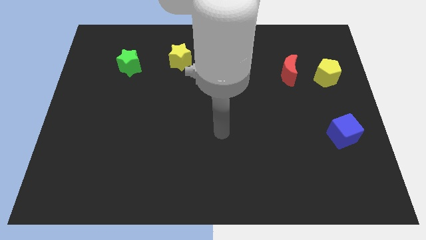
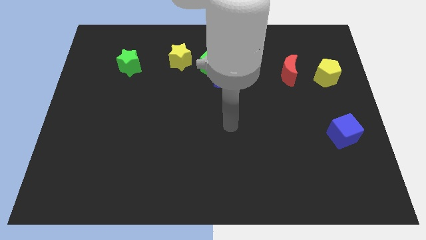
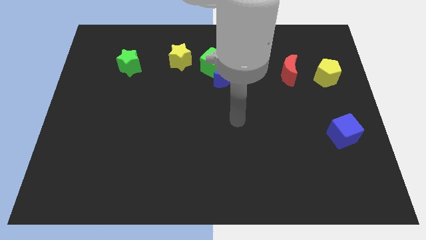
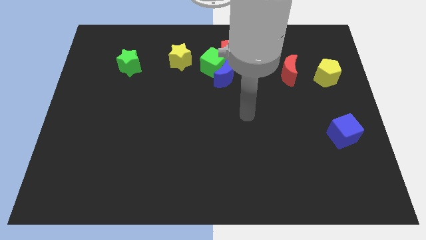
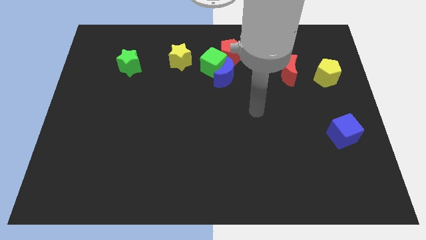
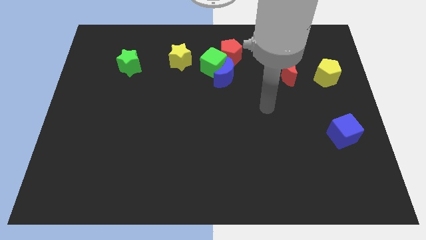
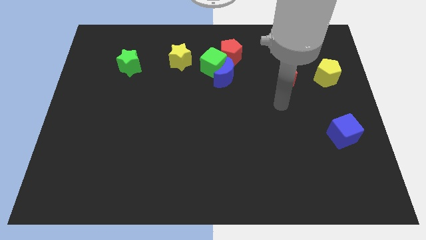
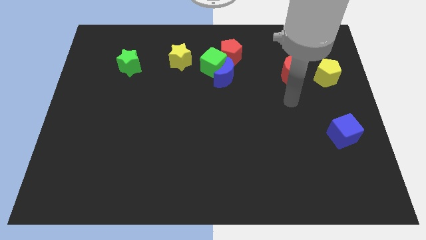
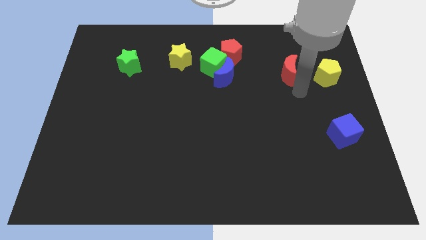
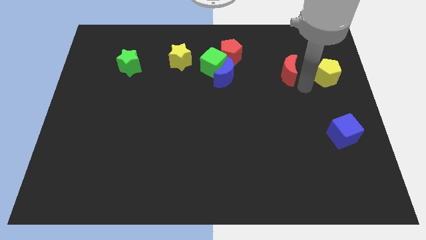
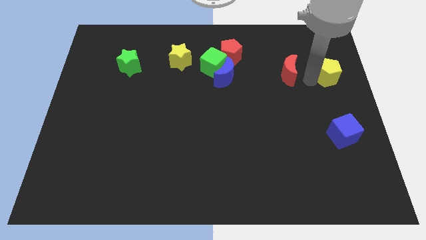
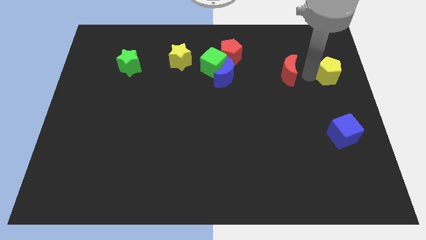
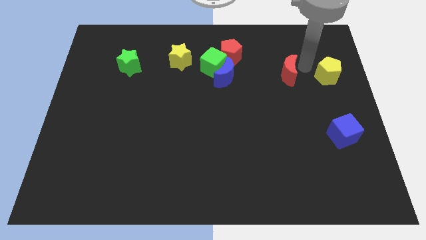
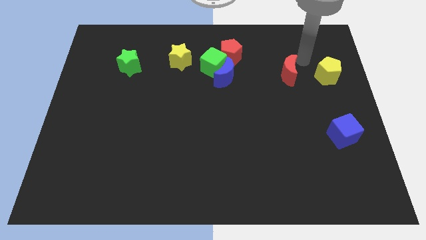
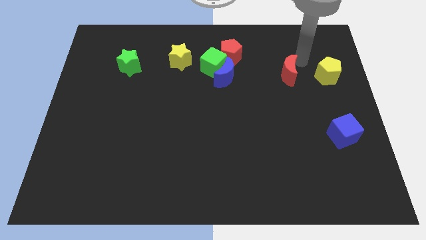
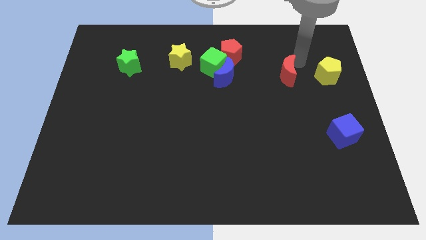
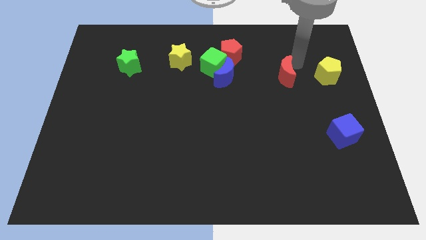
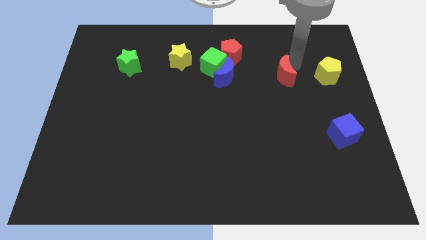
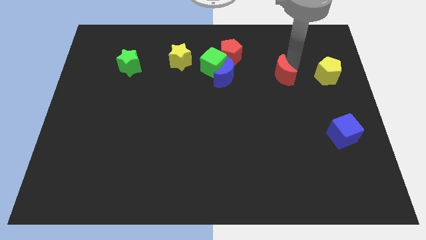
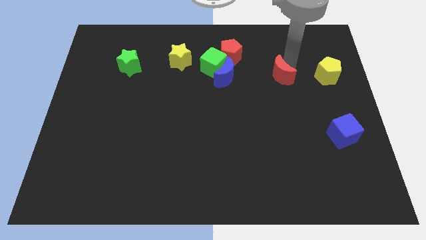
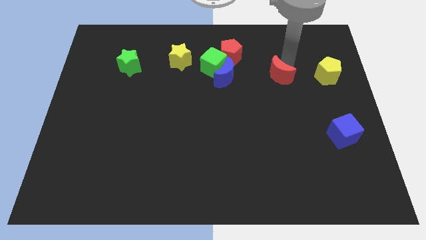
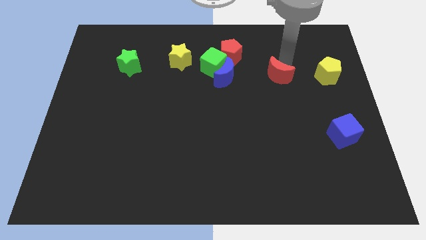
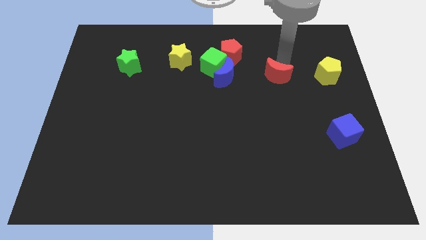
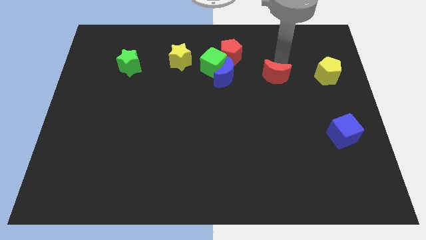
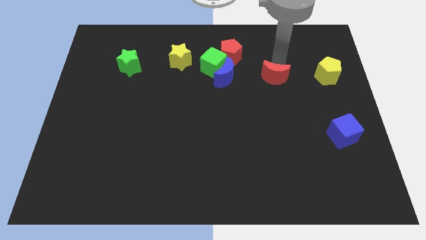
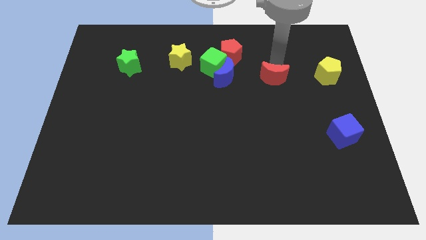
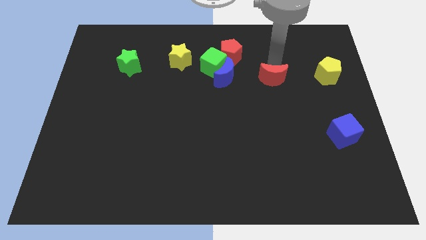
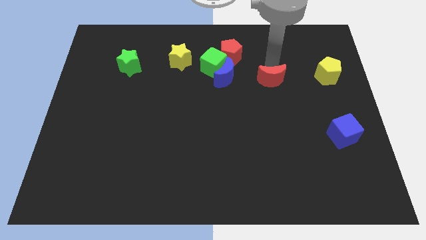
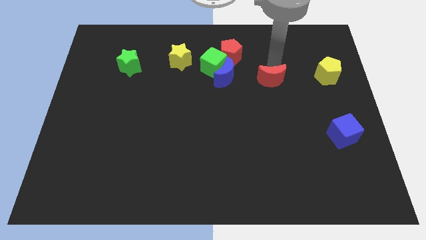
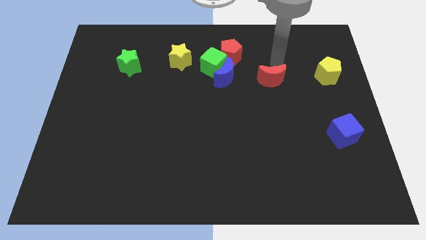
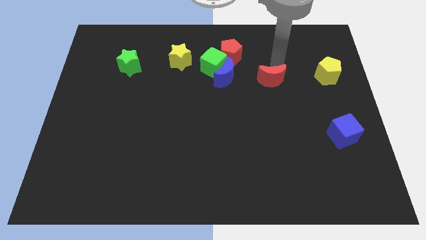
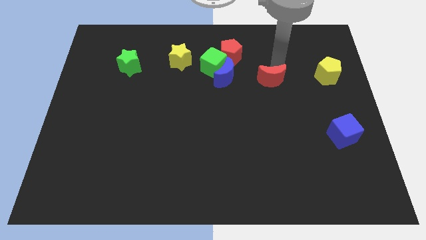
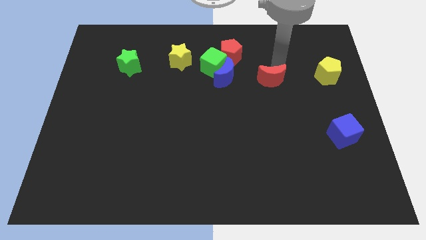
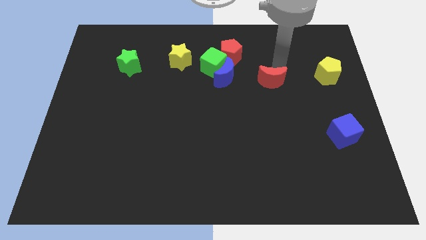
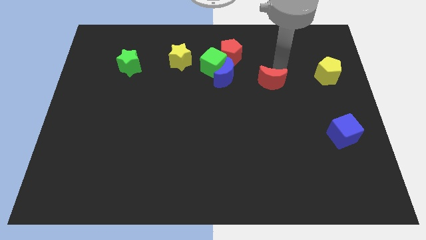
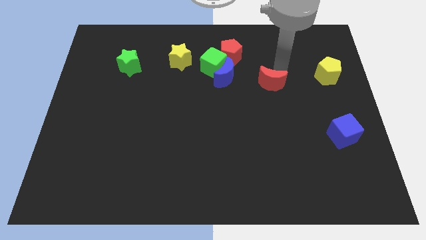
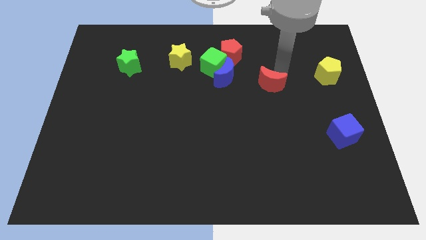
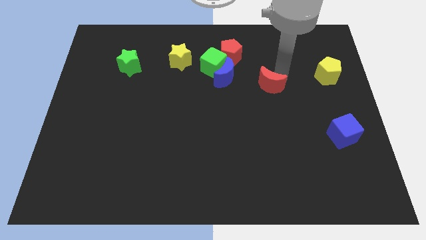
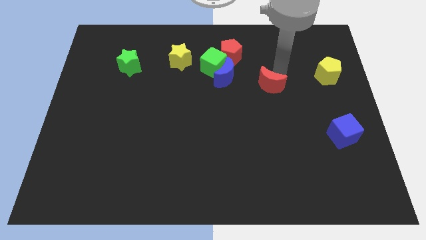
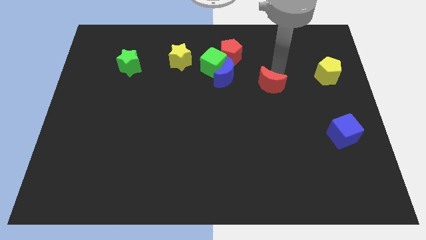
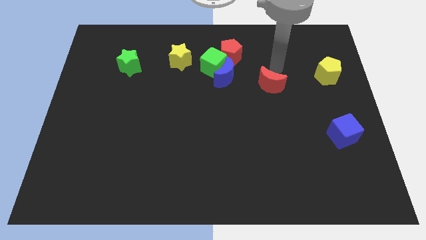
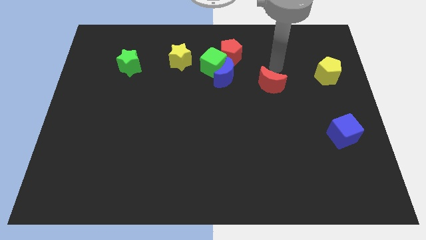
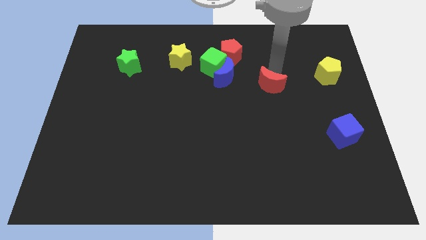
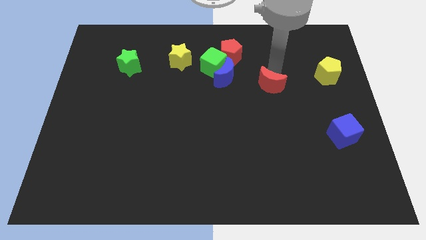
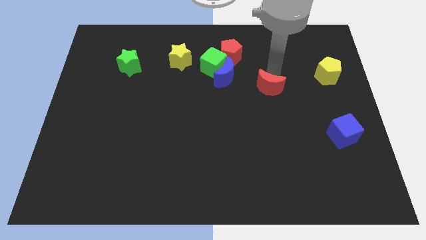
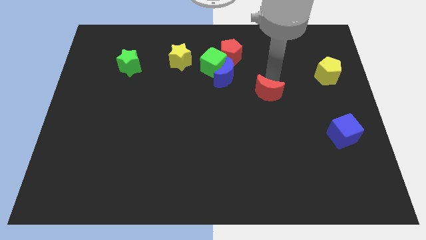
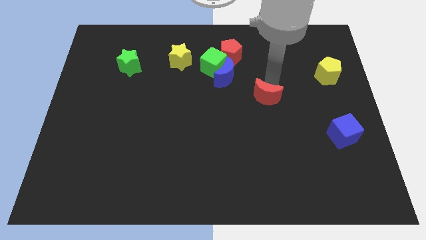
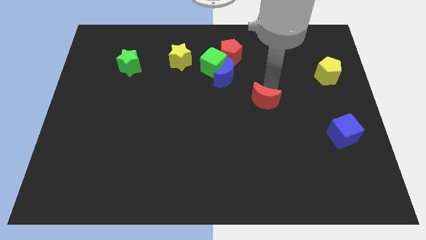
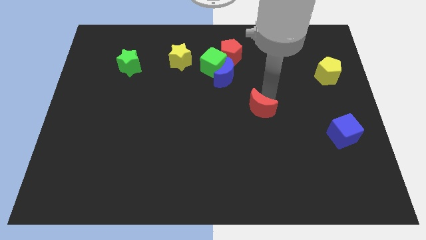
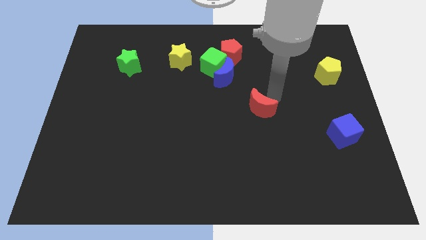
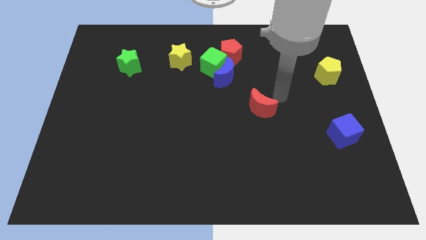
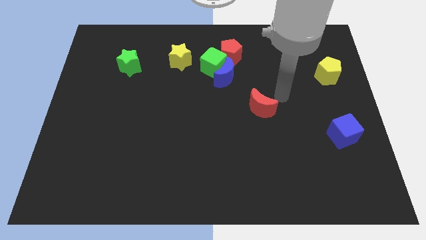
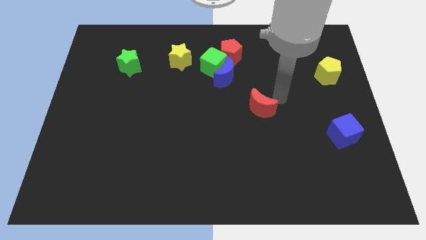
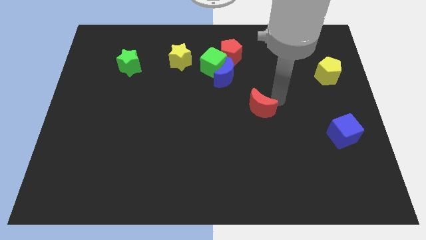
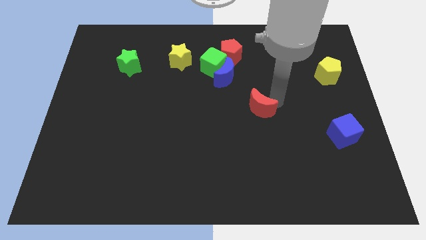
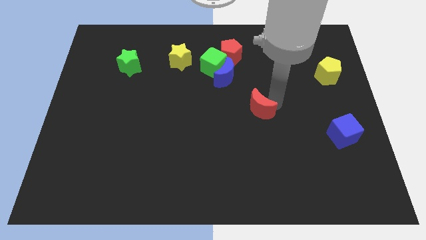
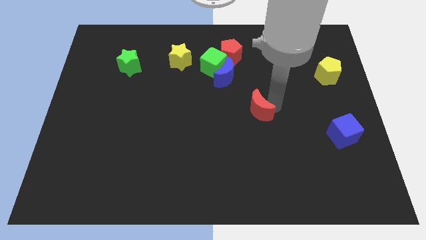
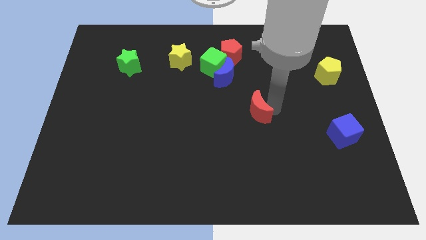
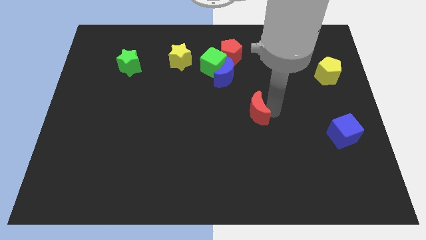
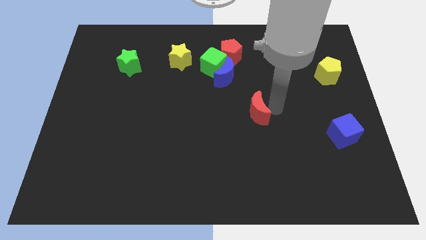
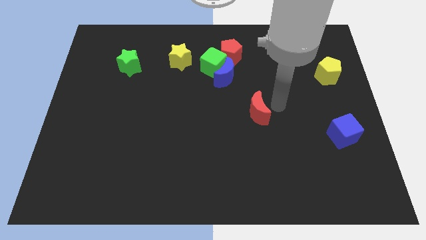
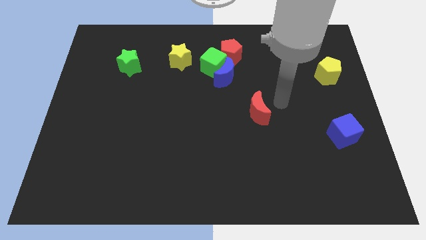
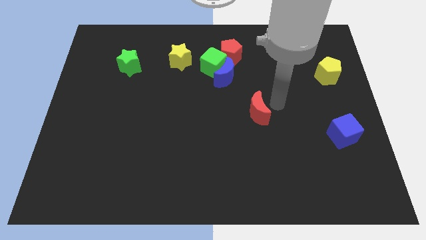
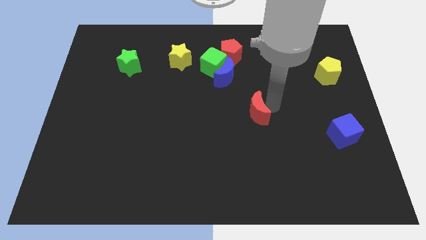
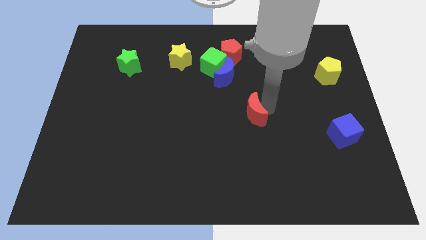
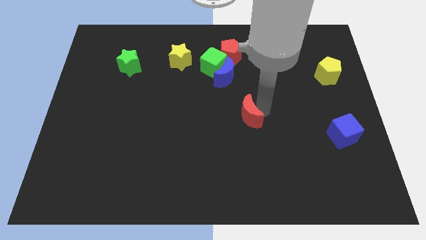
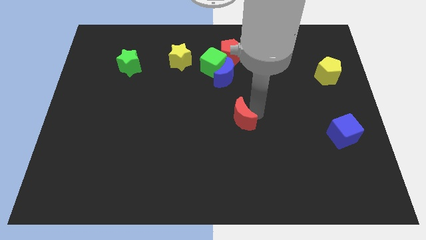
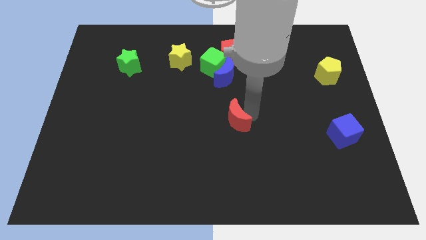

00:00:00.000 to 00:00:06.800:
slide the red moon downwards and to the left

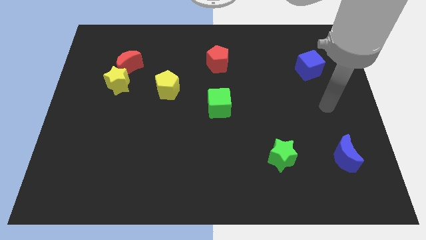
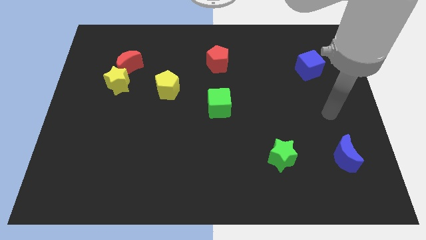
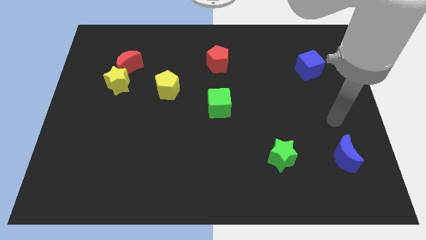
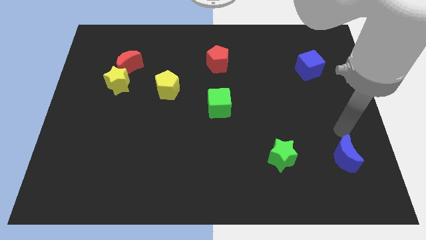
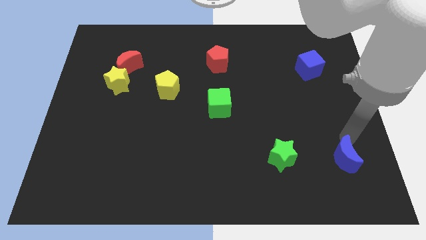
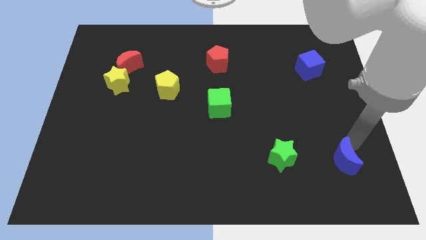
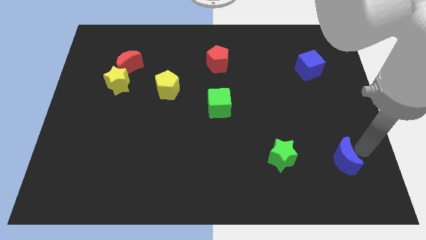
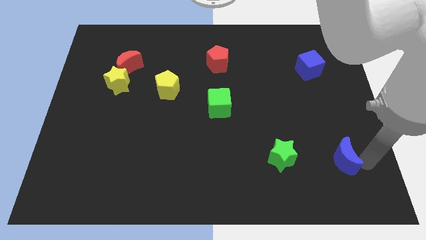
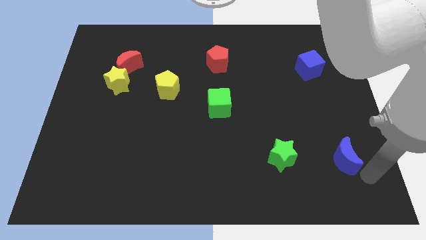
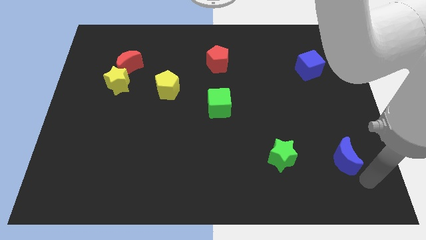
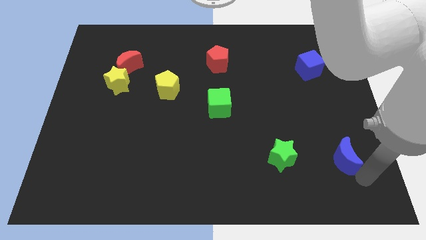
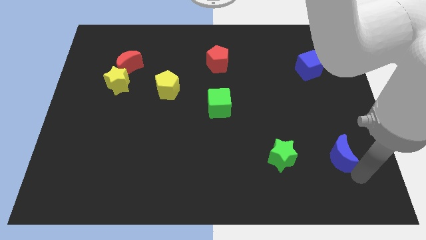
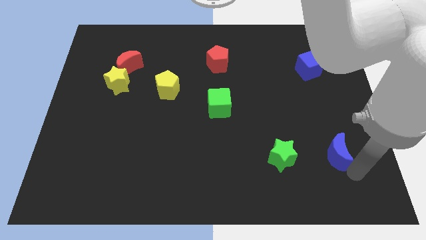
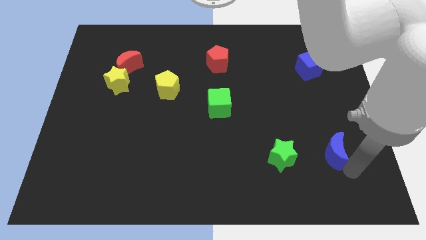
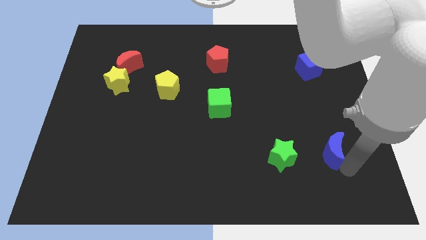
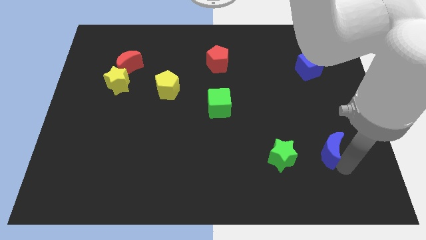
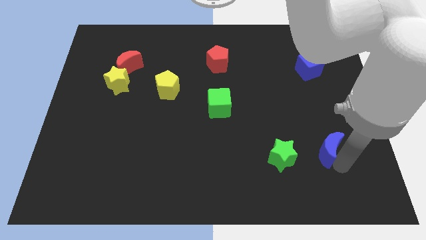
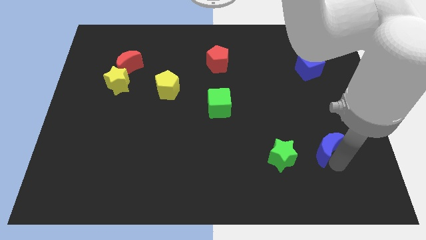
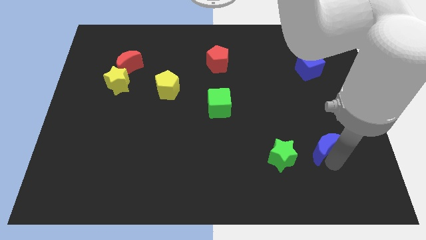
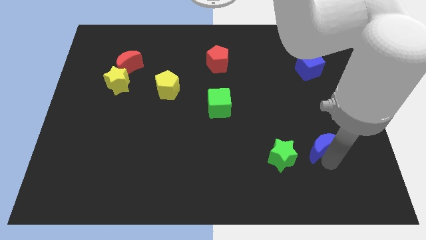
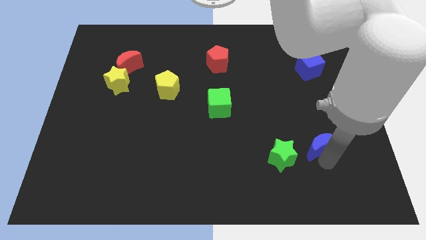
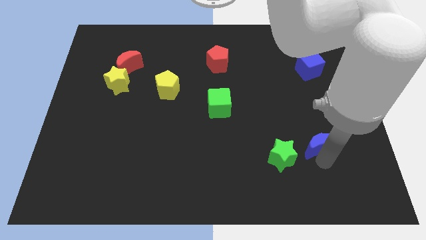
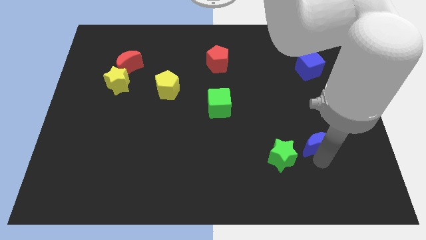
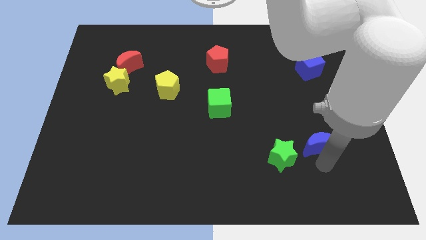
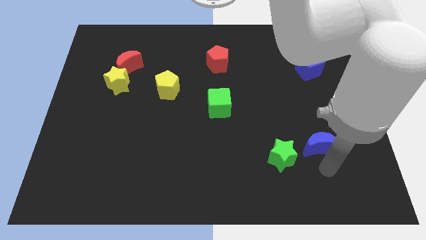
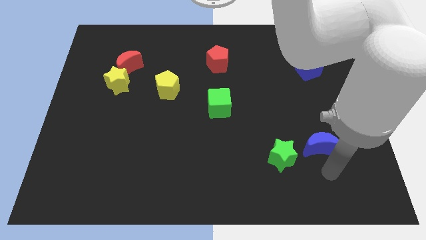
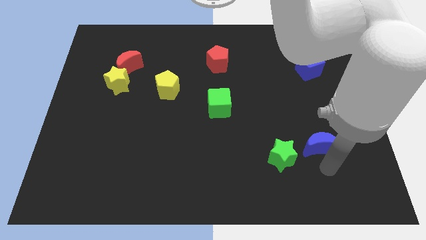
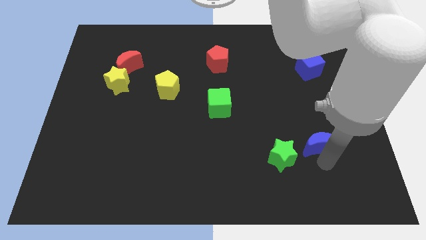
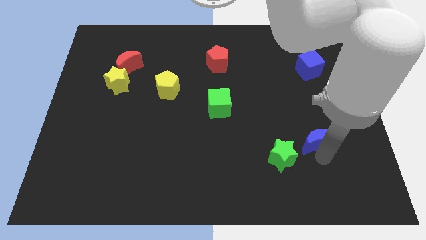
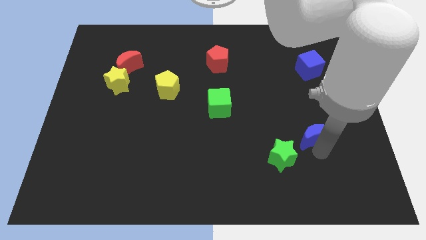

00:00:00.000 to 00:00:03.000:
push the blue moon a little bit diagonally up and to the left
